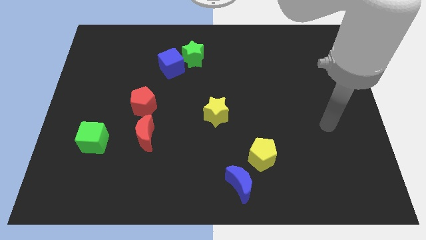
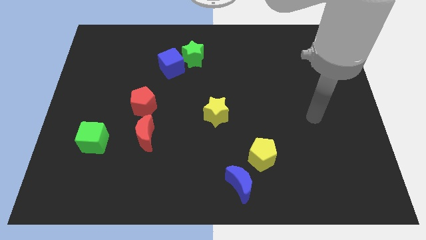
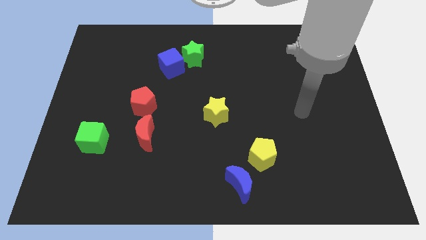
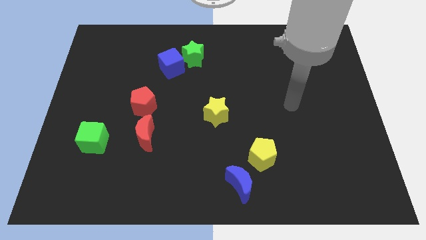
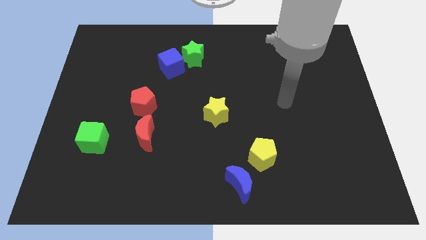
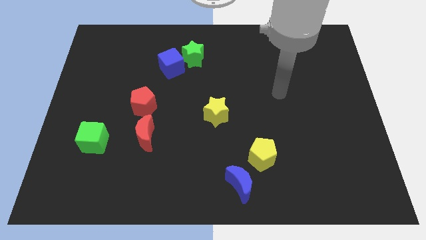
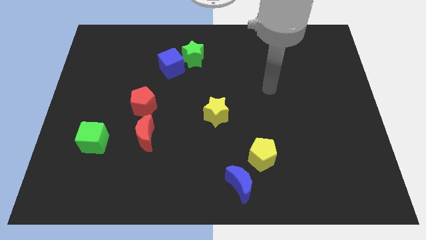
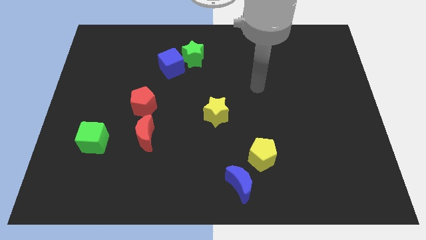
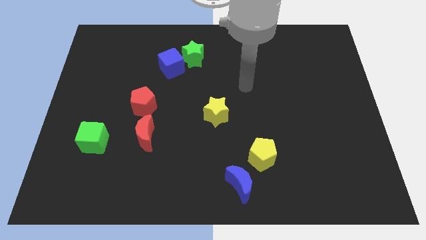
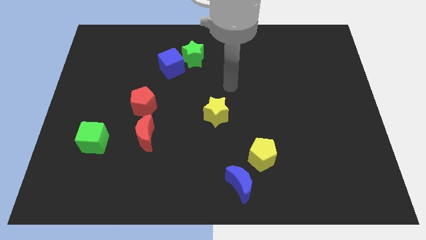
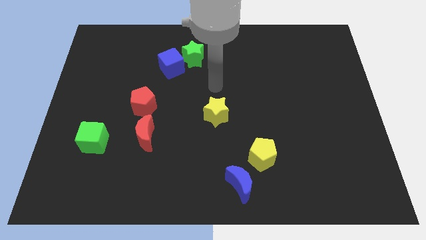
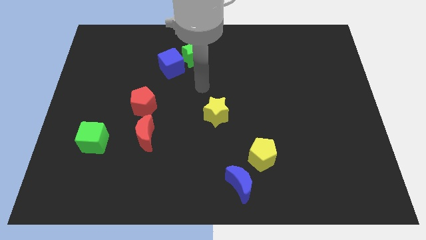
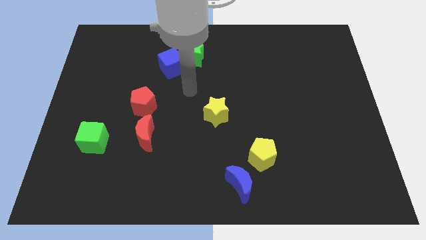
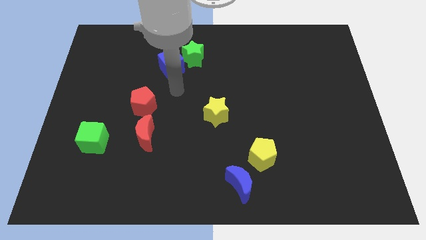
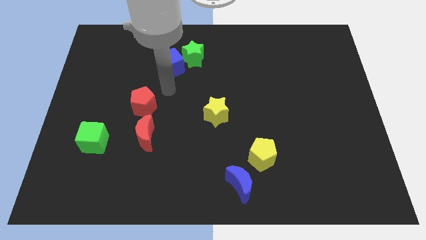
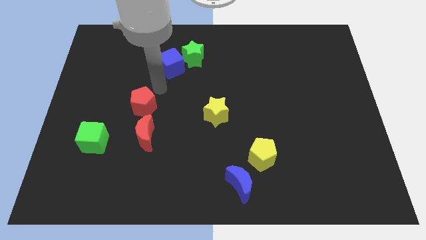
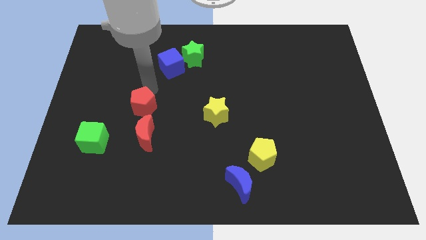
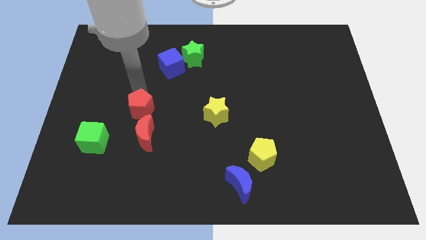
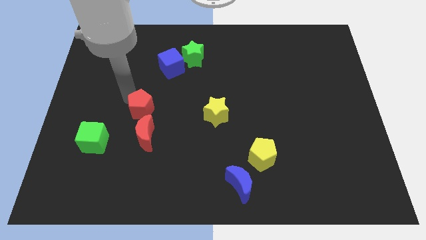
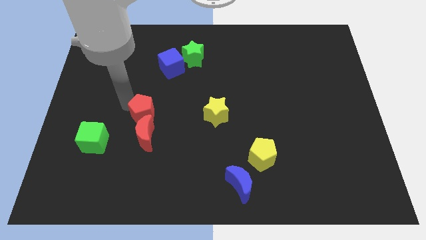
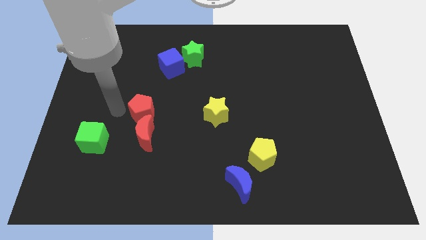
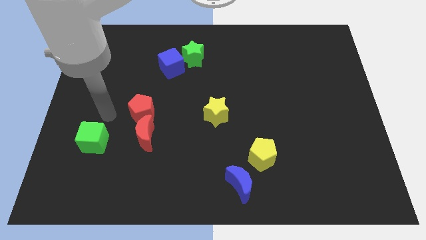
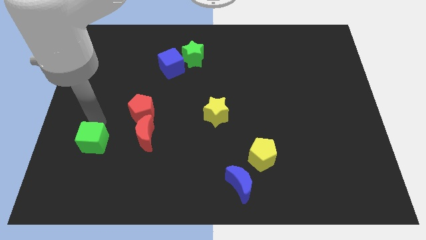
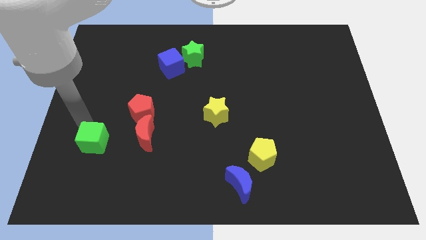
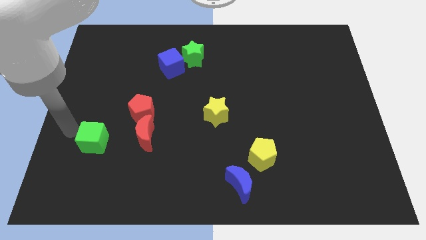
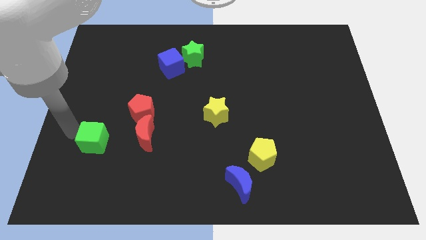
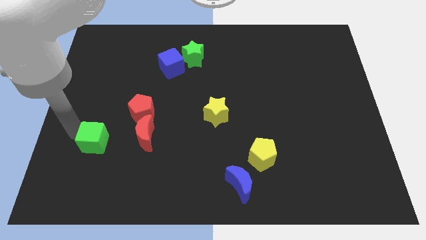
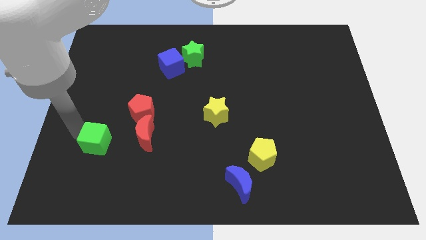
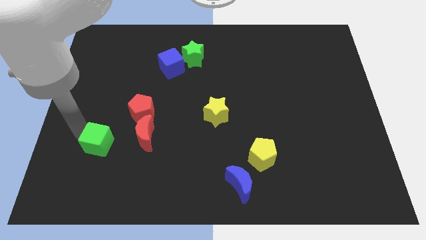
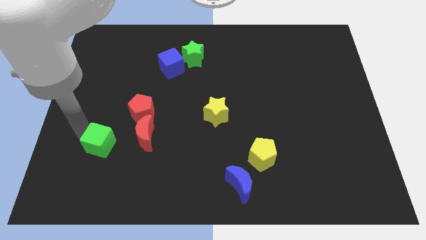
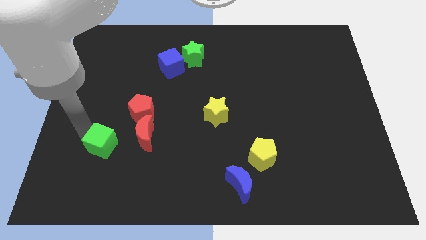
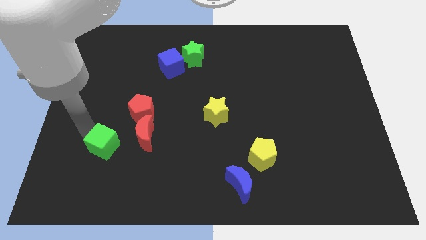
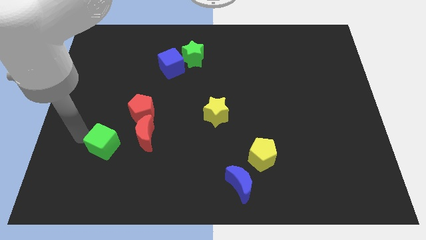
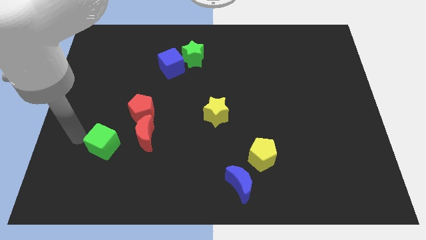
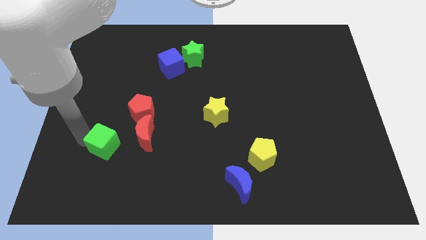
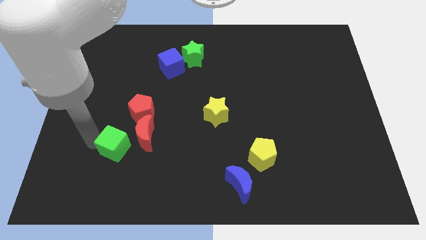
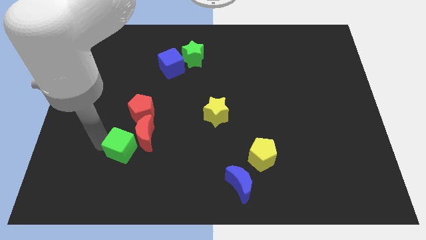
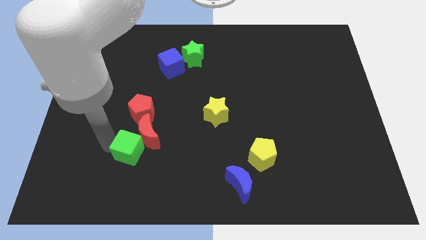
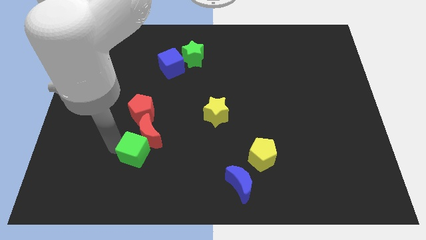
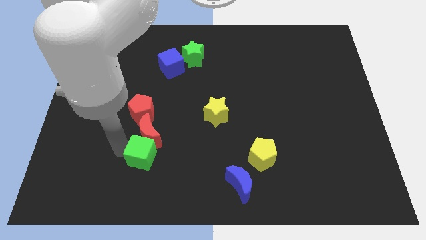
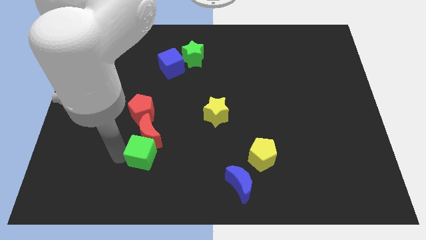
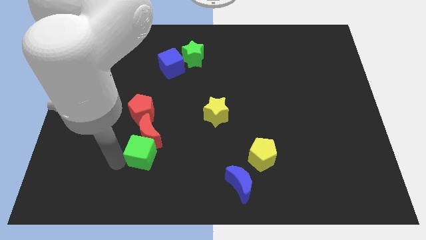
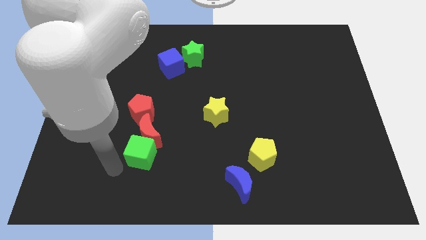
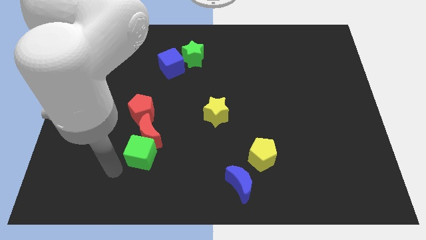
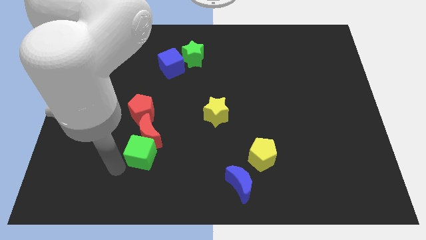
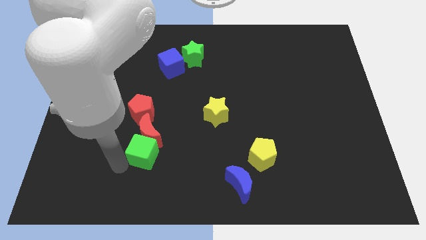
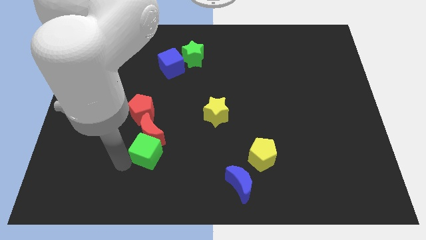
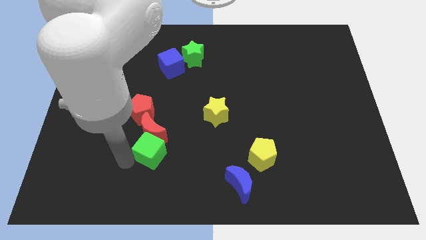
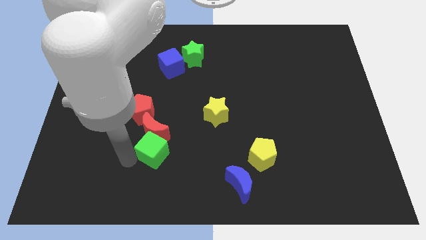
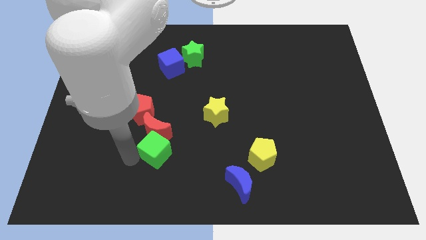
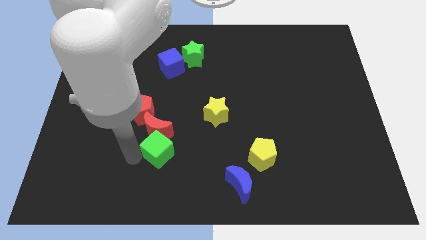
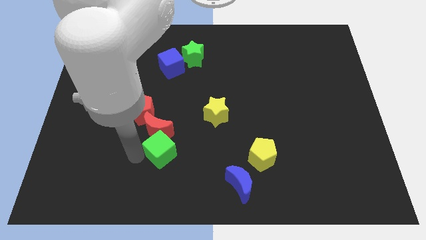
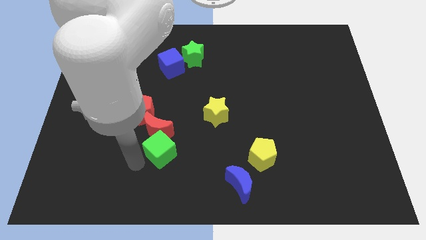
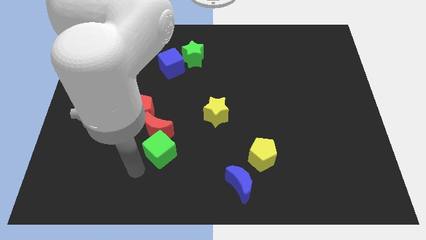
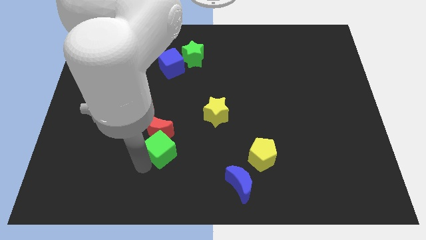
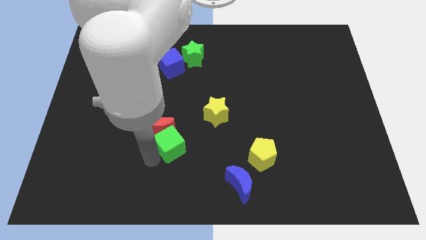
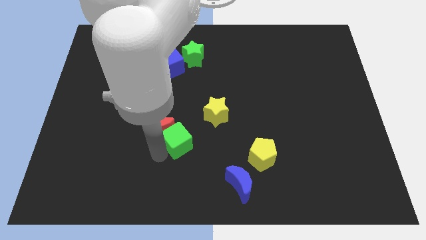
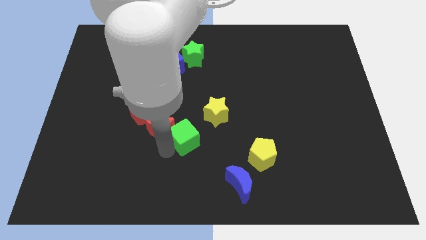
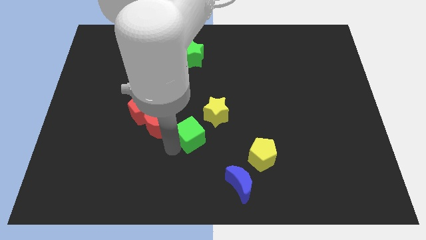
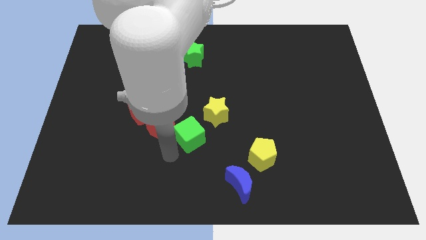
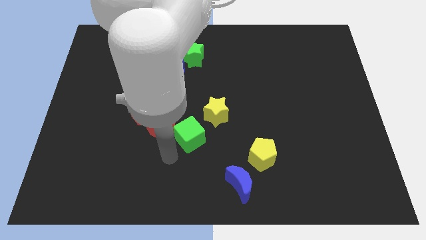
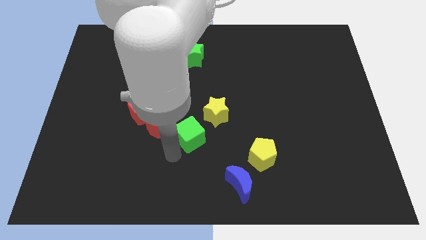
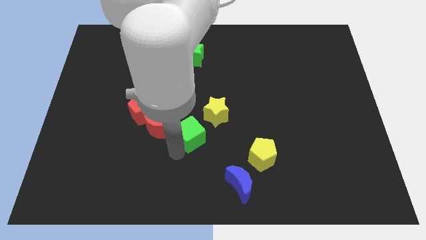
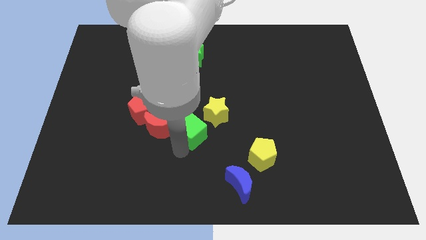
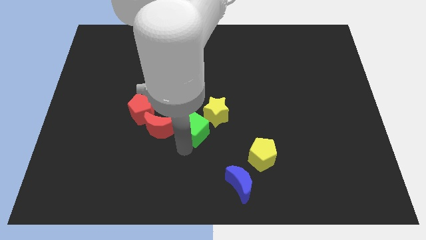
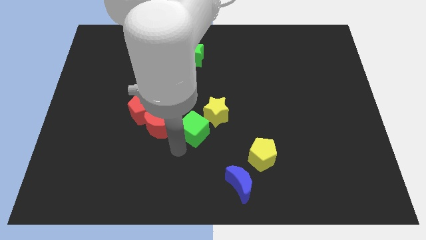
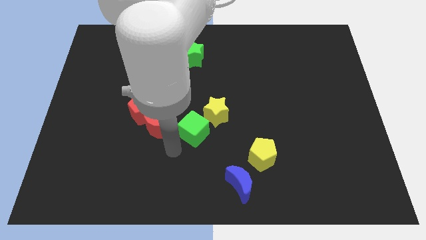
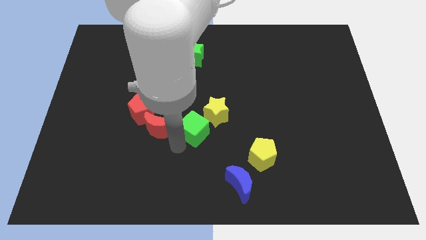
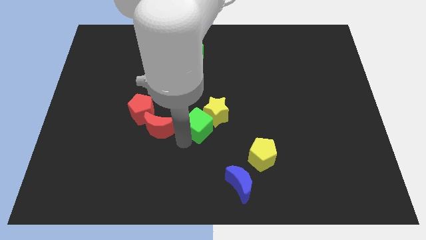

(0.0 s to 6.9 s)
move the green cube close to the yellow star
